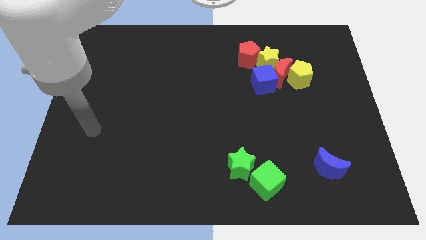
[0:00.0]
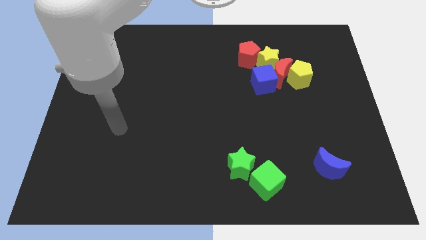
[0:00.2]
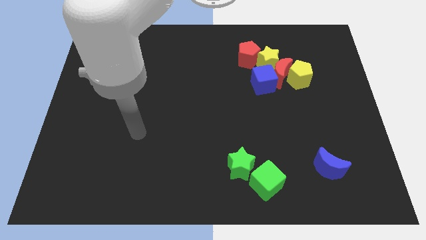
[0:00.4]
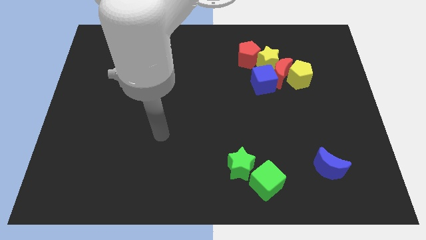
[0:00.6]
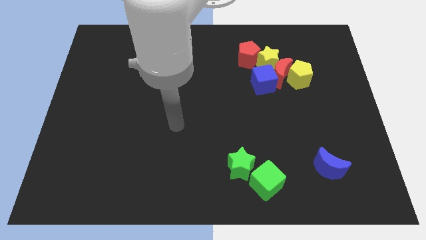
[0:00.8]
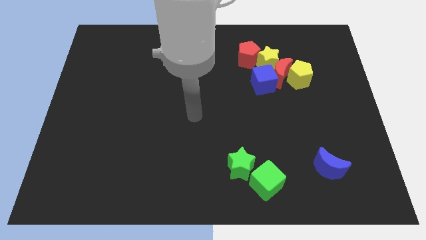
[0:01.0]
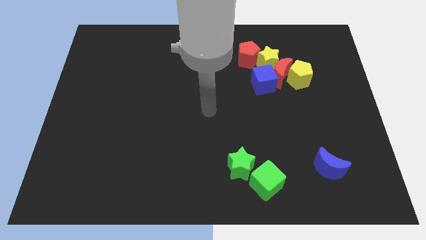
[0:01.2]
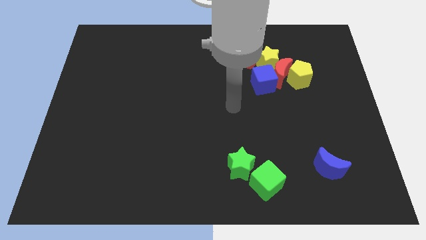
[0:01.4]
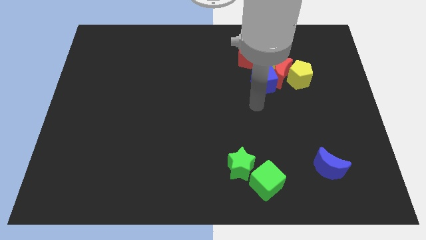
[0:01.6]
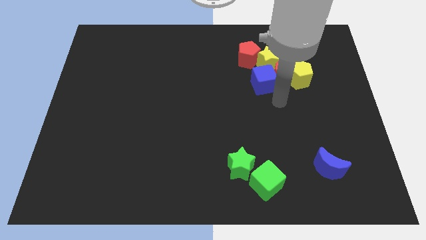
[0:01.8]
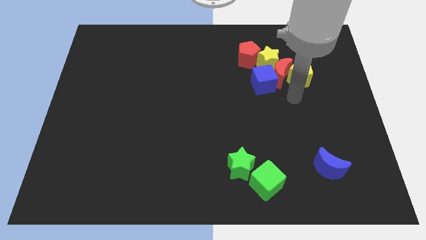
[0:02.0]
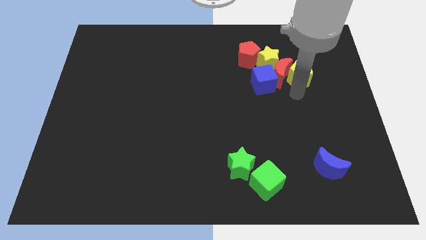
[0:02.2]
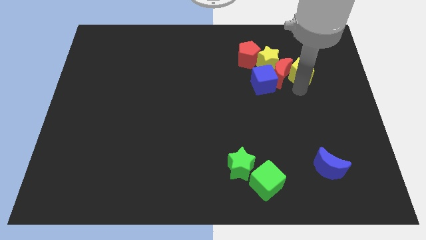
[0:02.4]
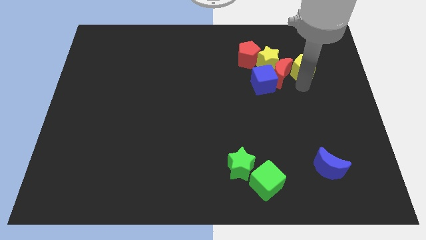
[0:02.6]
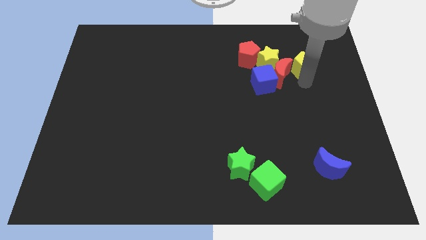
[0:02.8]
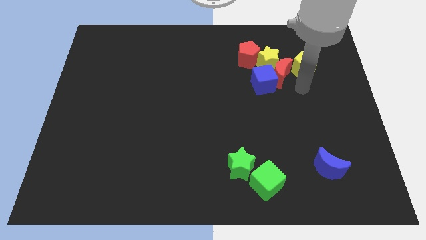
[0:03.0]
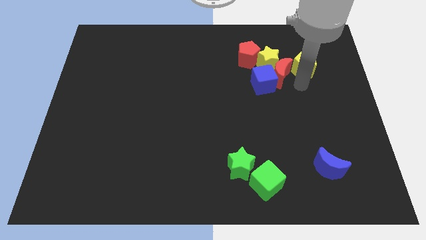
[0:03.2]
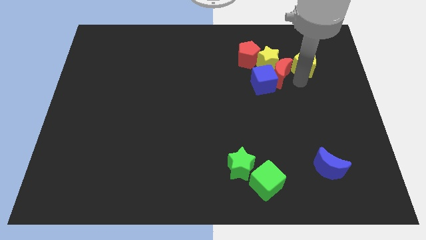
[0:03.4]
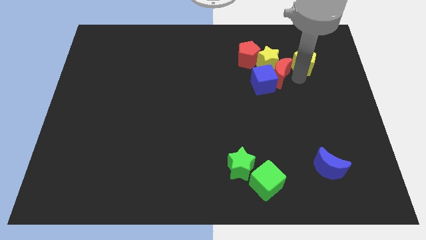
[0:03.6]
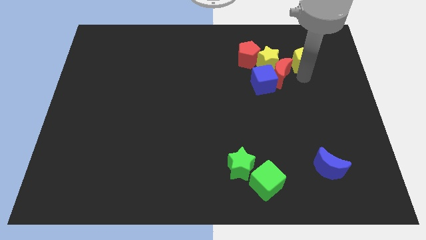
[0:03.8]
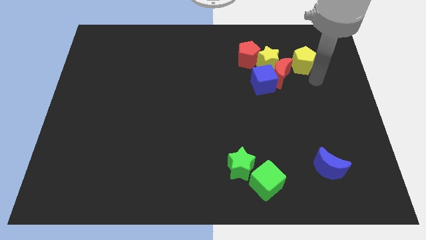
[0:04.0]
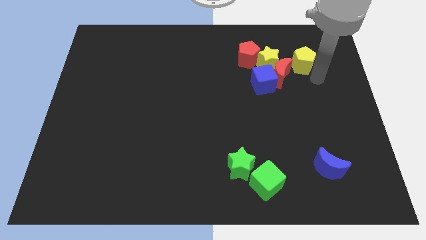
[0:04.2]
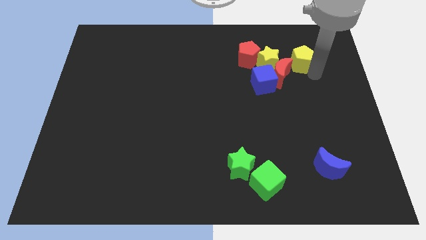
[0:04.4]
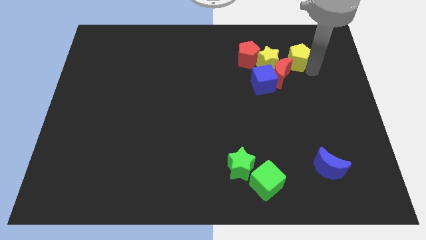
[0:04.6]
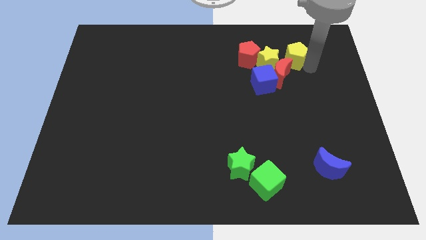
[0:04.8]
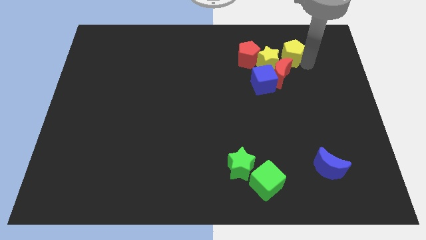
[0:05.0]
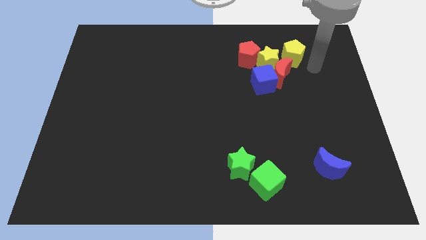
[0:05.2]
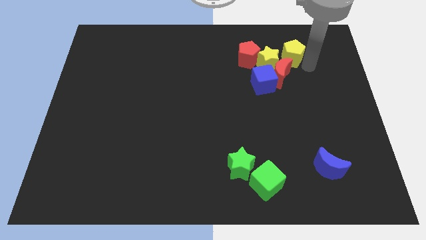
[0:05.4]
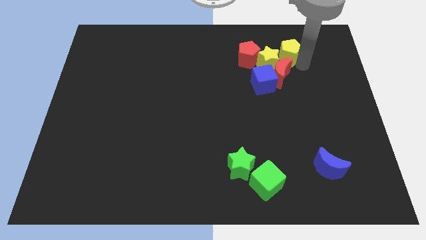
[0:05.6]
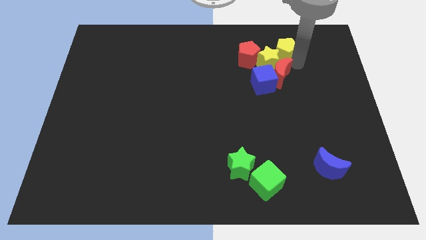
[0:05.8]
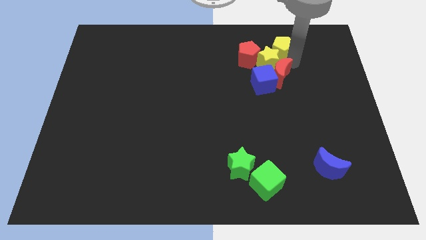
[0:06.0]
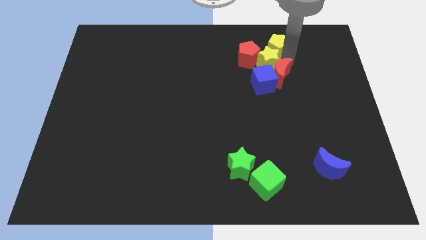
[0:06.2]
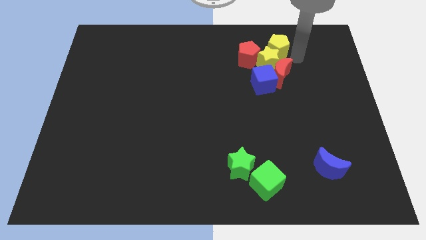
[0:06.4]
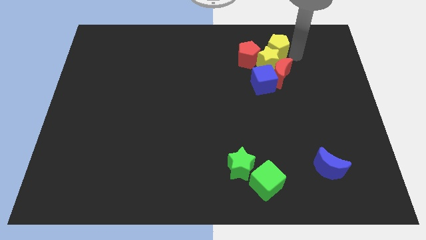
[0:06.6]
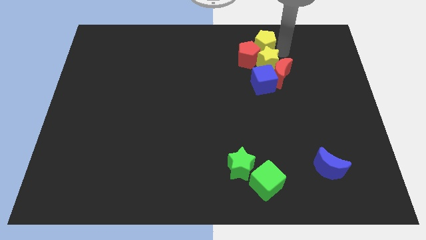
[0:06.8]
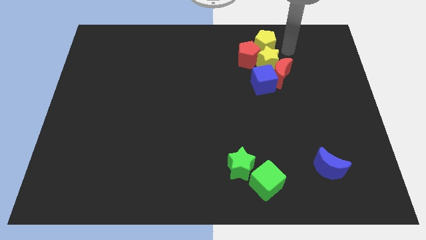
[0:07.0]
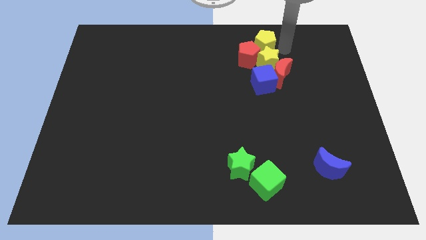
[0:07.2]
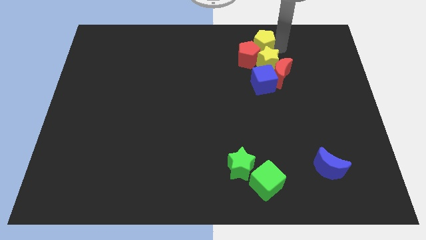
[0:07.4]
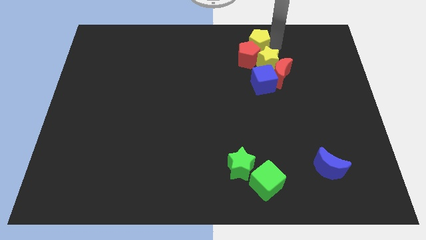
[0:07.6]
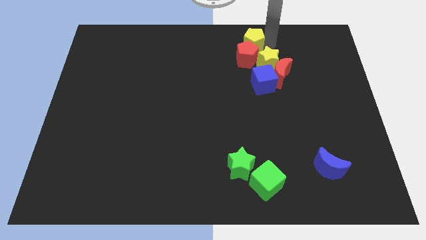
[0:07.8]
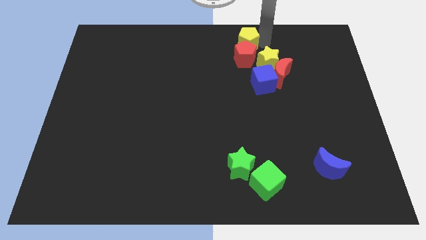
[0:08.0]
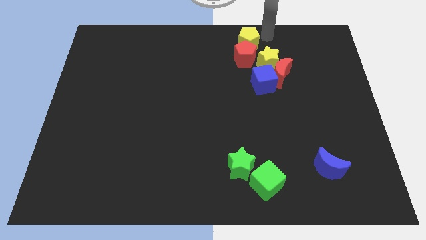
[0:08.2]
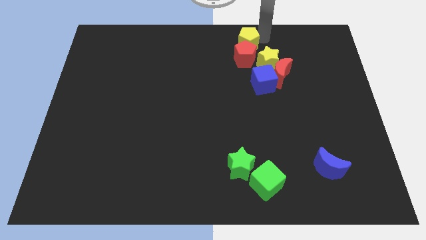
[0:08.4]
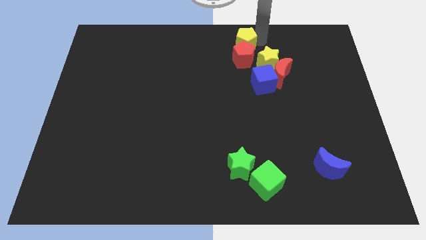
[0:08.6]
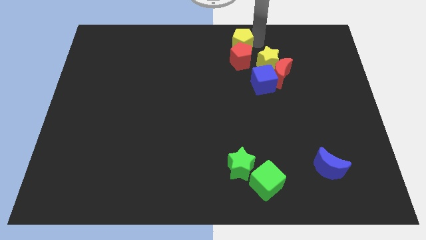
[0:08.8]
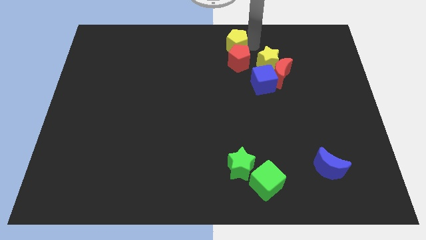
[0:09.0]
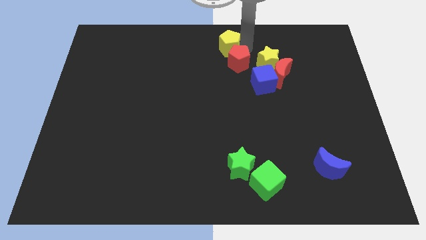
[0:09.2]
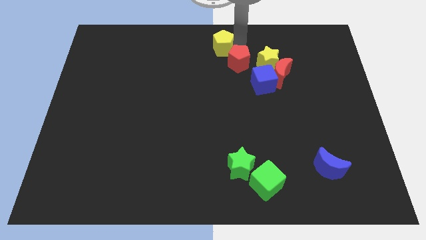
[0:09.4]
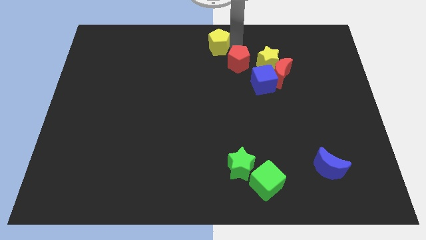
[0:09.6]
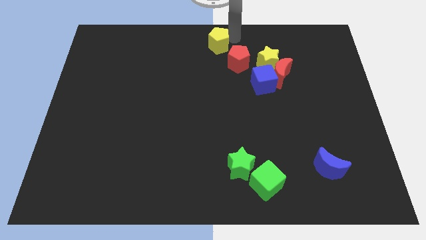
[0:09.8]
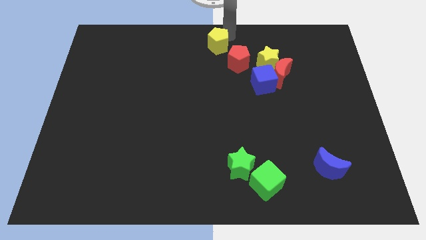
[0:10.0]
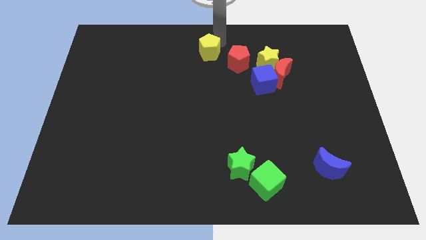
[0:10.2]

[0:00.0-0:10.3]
put the yellow pentagon just left of the red pentagon

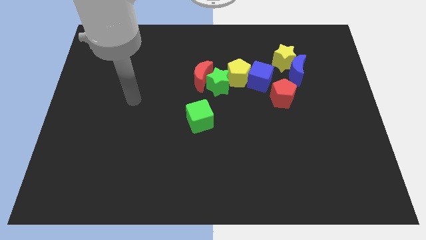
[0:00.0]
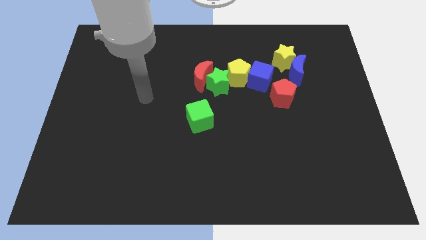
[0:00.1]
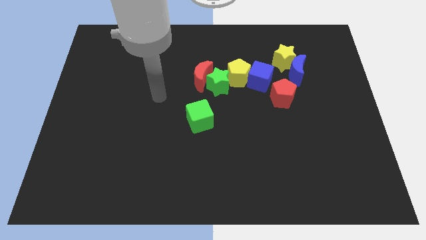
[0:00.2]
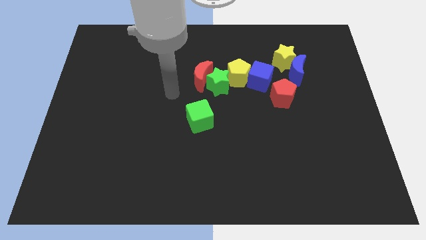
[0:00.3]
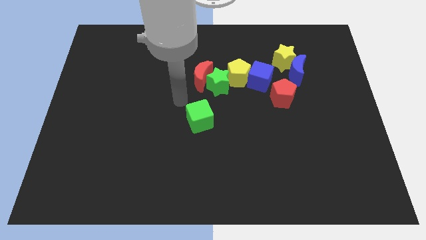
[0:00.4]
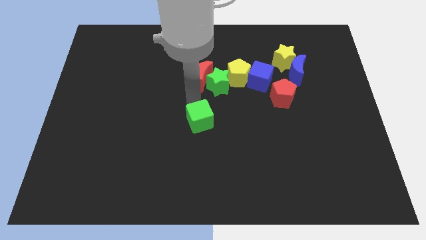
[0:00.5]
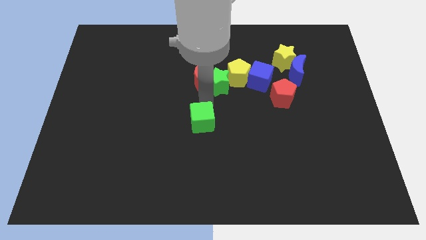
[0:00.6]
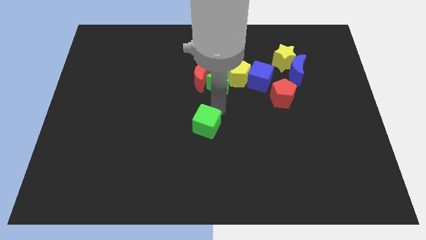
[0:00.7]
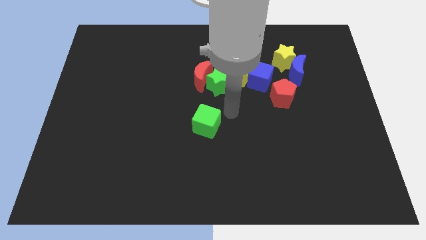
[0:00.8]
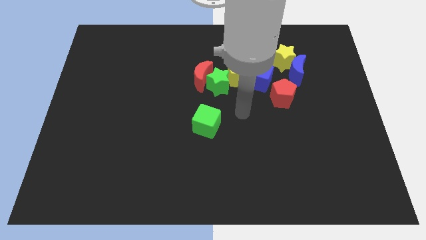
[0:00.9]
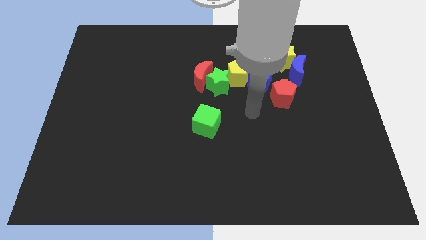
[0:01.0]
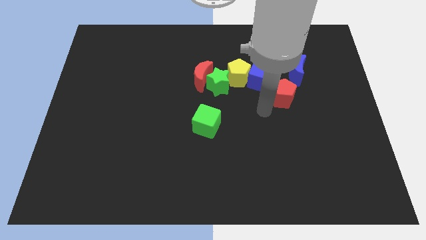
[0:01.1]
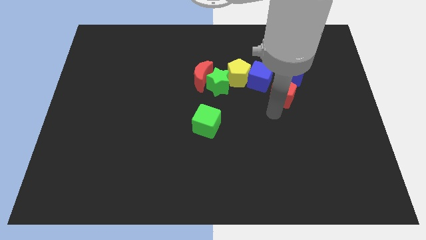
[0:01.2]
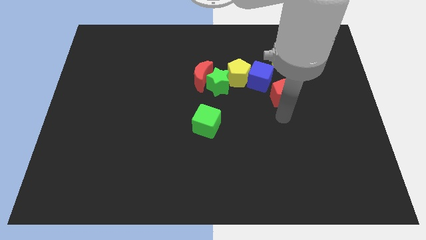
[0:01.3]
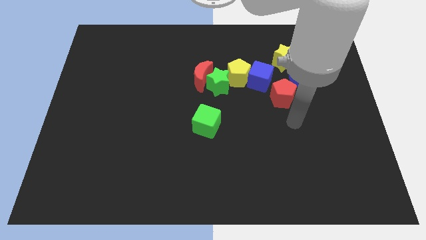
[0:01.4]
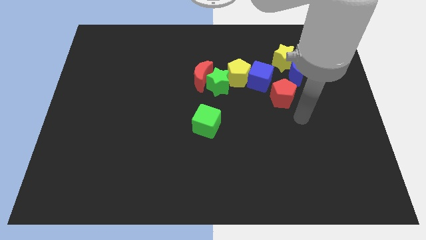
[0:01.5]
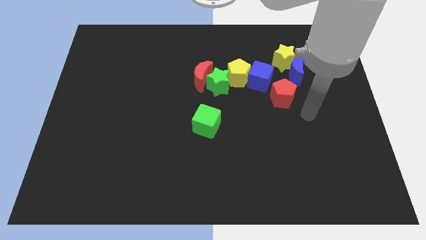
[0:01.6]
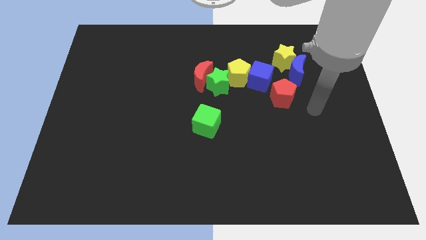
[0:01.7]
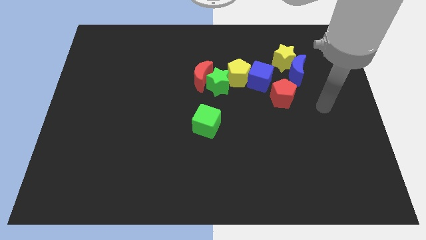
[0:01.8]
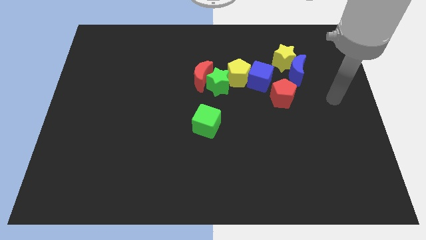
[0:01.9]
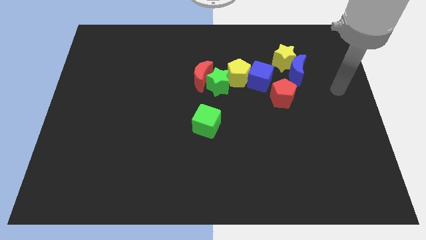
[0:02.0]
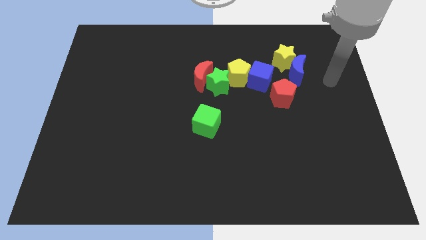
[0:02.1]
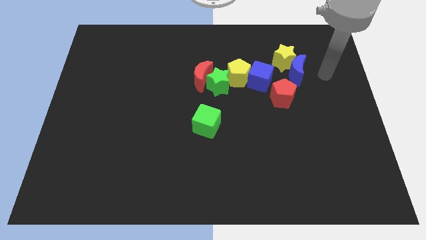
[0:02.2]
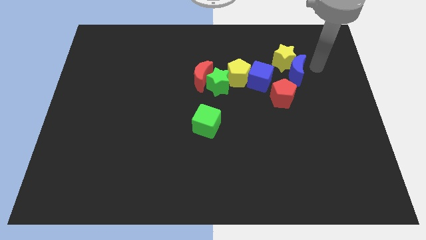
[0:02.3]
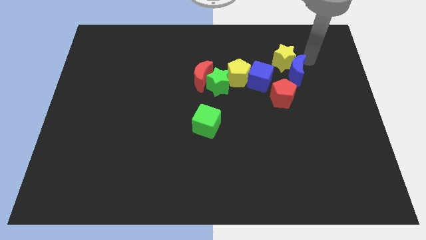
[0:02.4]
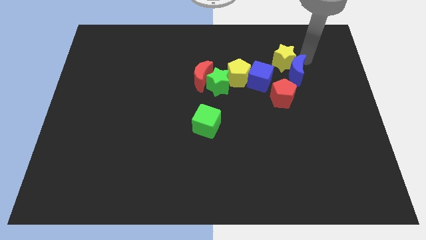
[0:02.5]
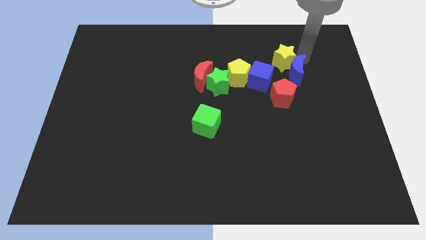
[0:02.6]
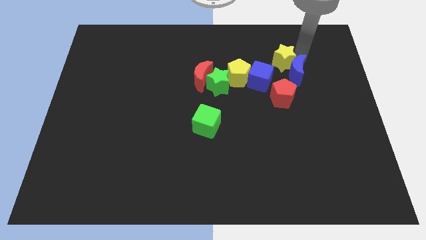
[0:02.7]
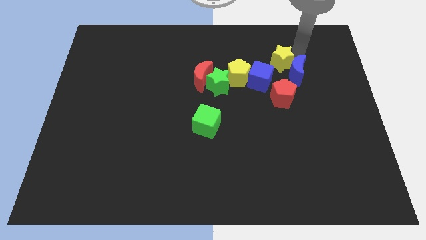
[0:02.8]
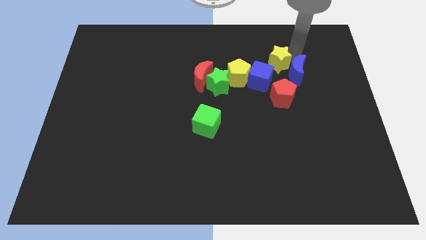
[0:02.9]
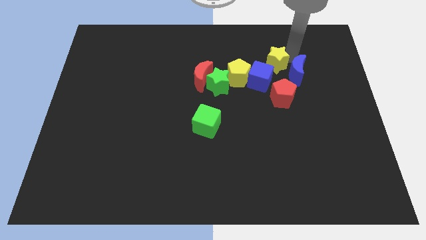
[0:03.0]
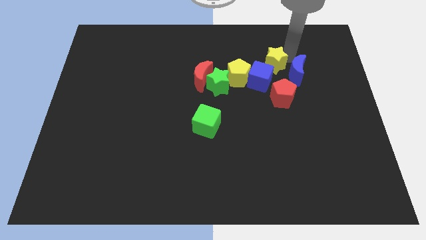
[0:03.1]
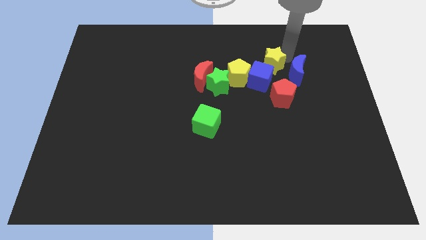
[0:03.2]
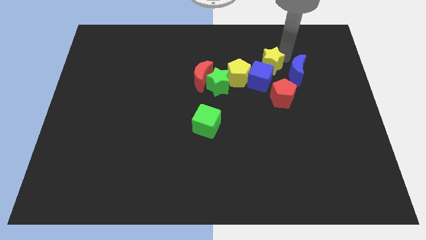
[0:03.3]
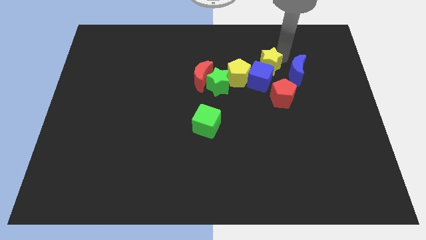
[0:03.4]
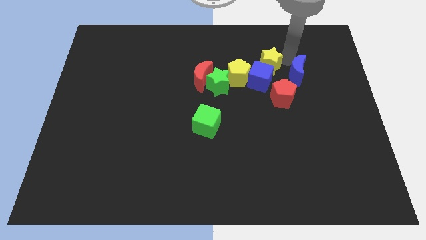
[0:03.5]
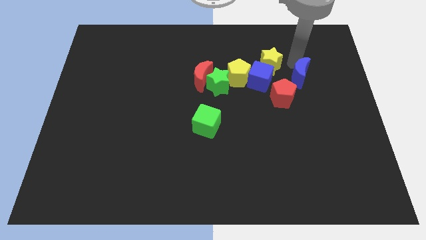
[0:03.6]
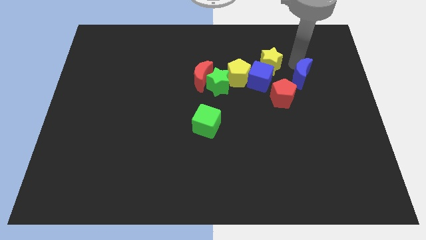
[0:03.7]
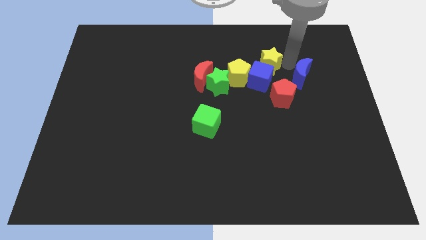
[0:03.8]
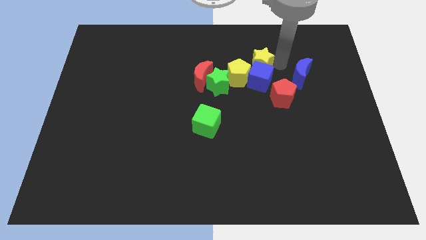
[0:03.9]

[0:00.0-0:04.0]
move the yellow star diagonally up and to the left of the blue cube
